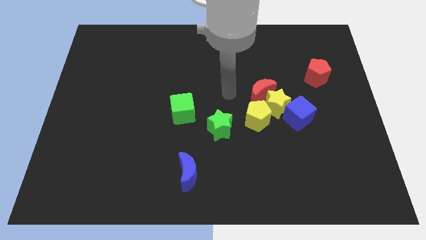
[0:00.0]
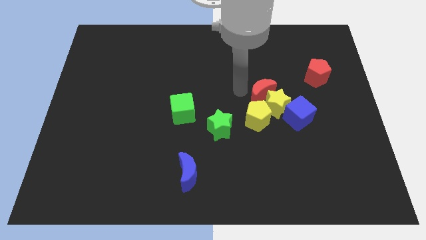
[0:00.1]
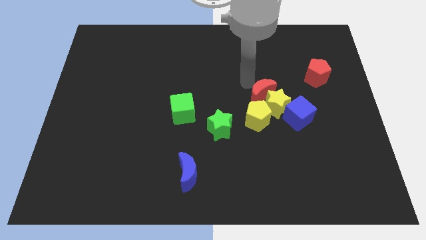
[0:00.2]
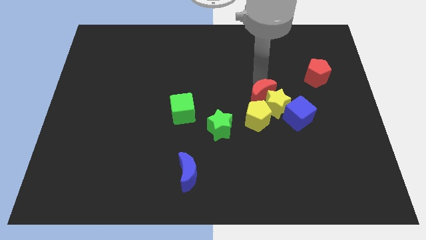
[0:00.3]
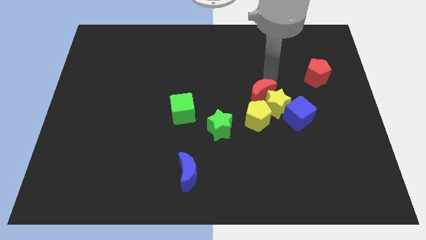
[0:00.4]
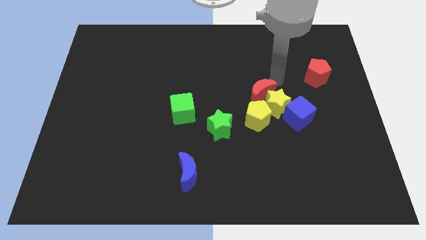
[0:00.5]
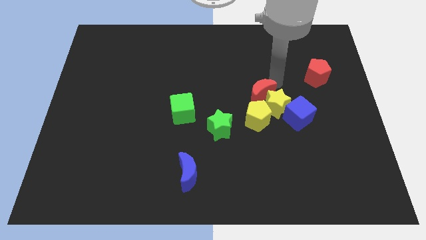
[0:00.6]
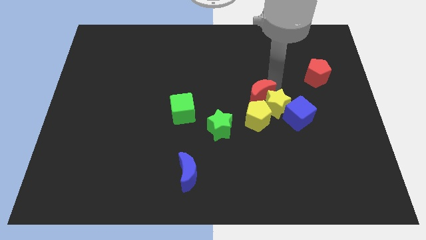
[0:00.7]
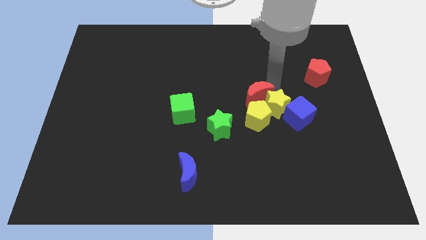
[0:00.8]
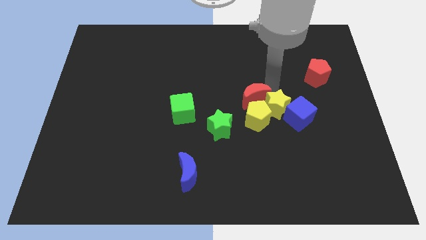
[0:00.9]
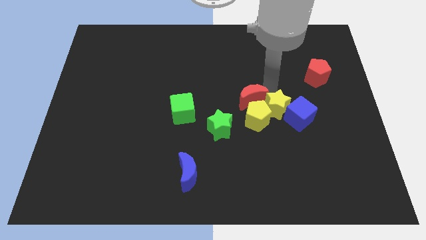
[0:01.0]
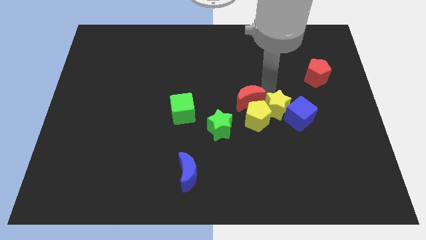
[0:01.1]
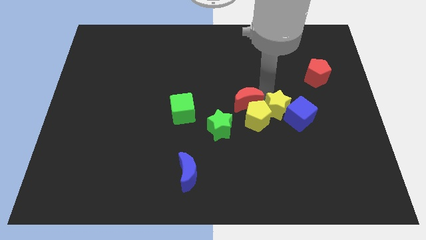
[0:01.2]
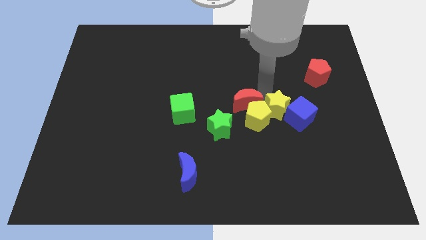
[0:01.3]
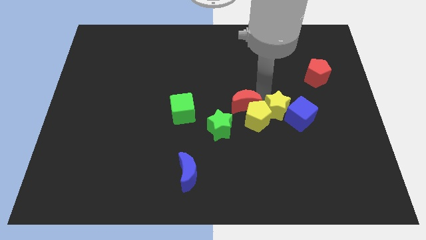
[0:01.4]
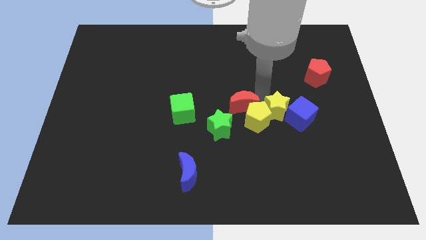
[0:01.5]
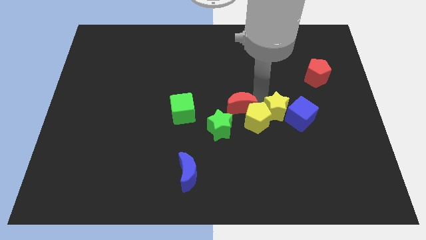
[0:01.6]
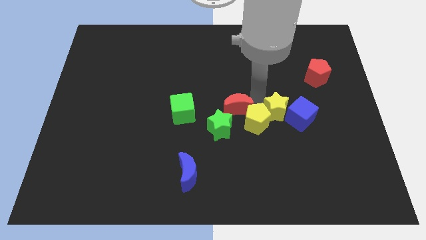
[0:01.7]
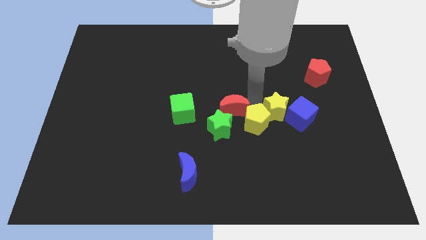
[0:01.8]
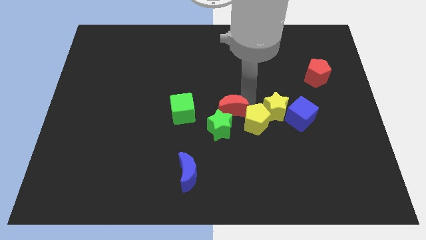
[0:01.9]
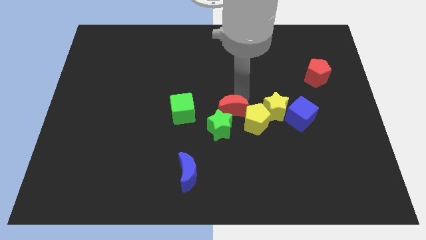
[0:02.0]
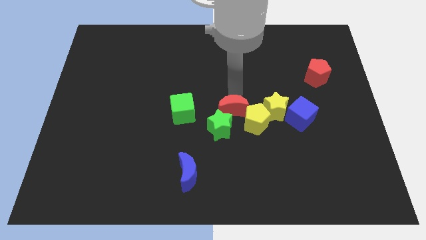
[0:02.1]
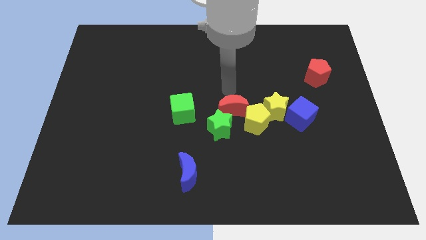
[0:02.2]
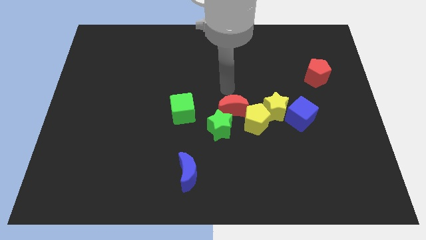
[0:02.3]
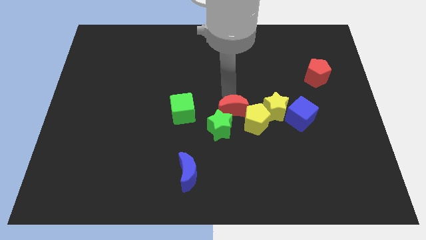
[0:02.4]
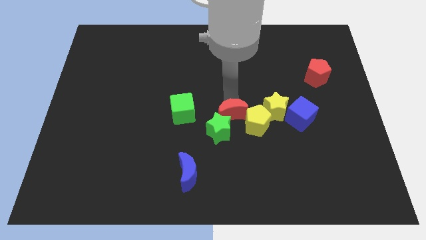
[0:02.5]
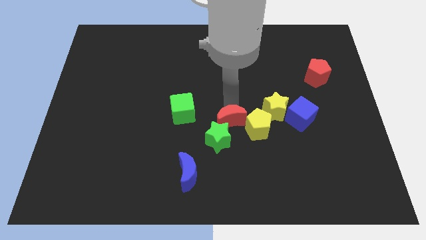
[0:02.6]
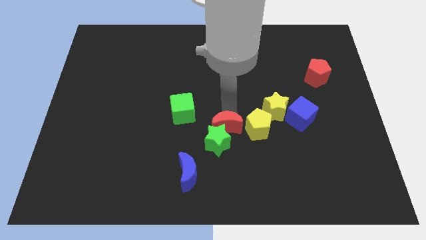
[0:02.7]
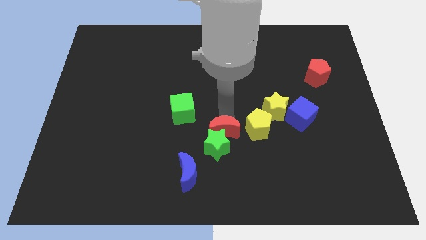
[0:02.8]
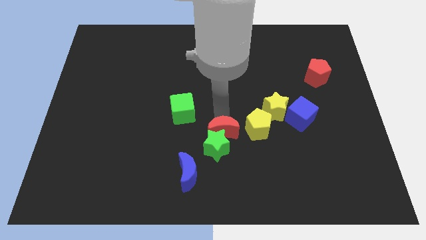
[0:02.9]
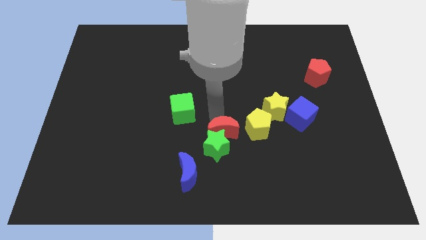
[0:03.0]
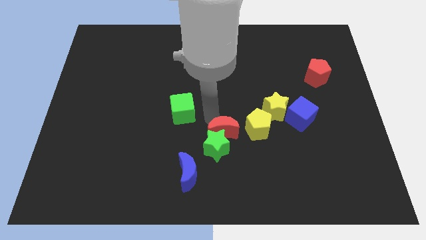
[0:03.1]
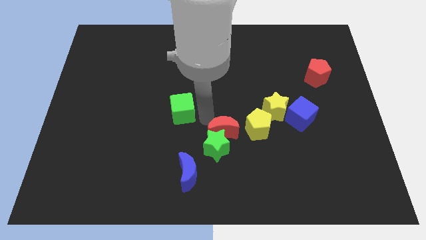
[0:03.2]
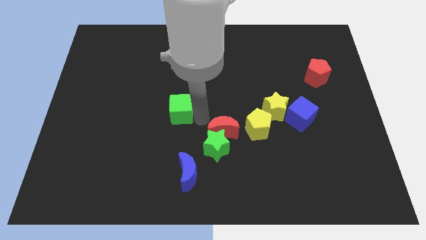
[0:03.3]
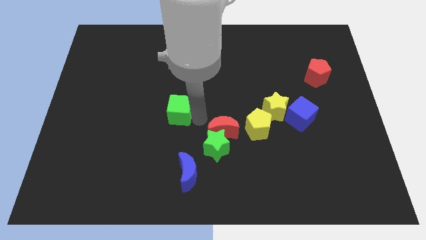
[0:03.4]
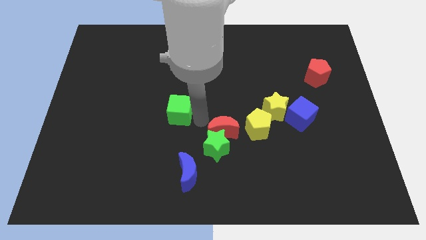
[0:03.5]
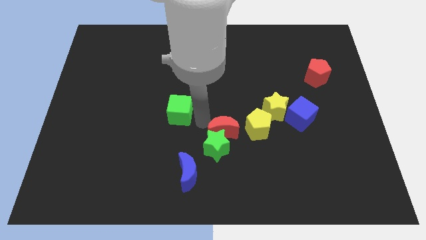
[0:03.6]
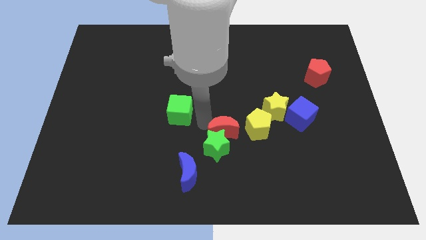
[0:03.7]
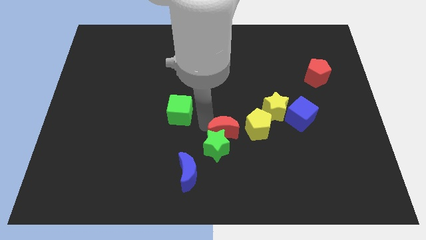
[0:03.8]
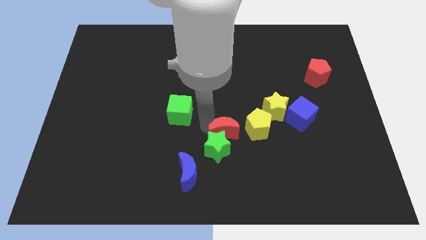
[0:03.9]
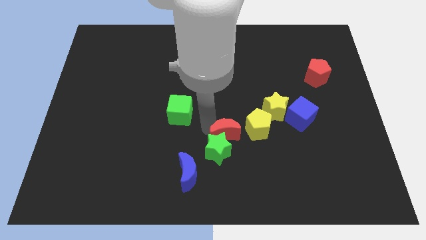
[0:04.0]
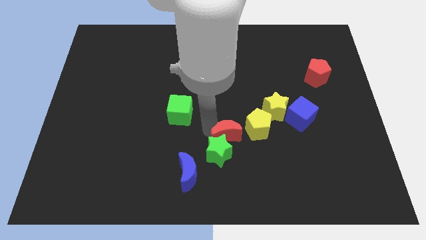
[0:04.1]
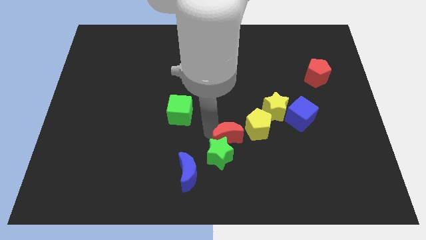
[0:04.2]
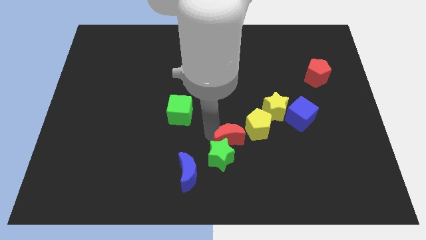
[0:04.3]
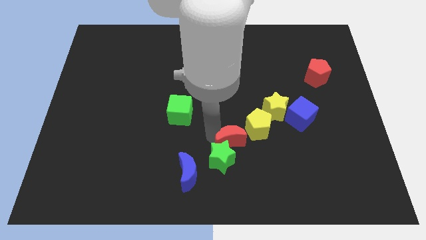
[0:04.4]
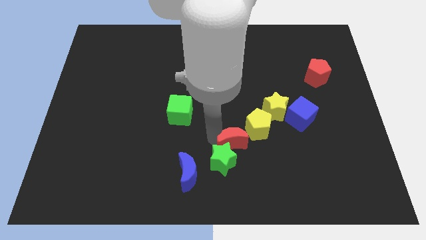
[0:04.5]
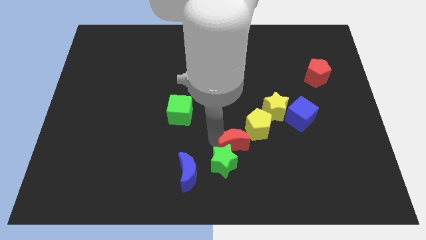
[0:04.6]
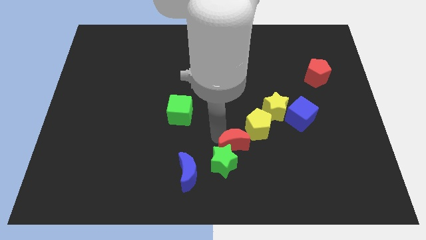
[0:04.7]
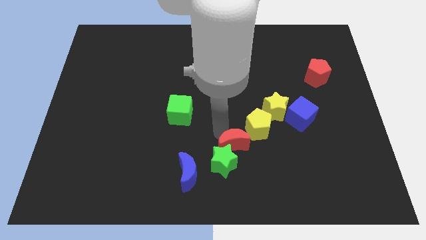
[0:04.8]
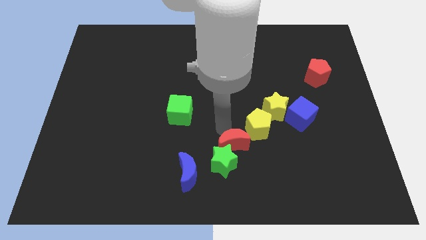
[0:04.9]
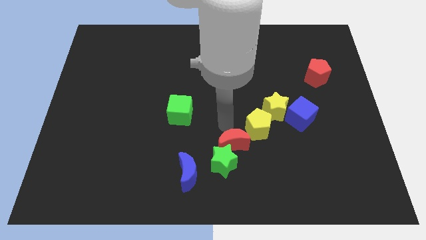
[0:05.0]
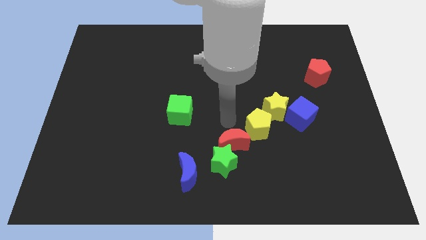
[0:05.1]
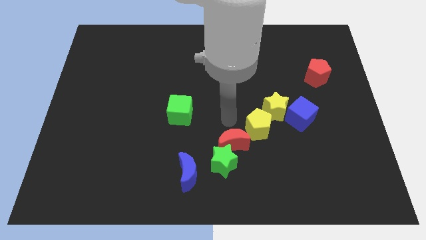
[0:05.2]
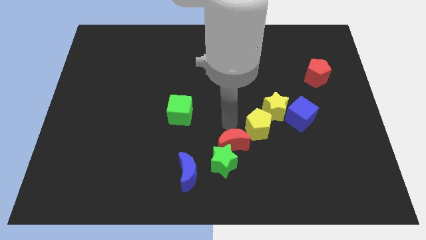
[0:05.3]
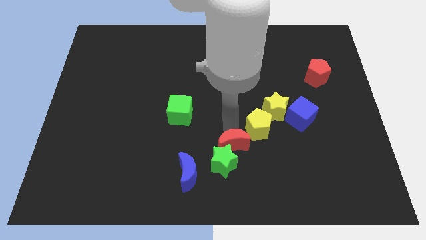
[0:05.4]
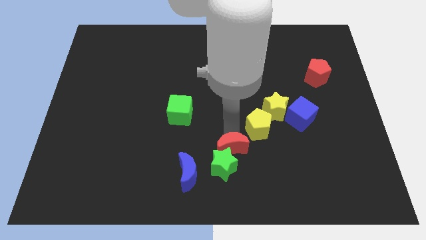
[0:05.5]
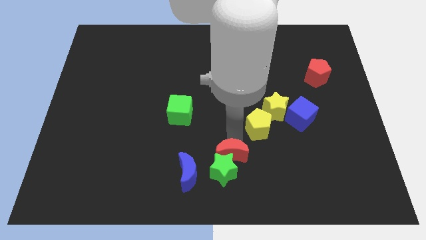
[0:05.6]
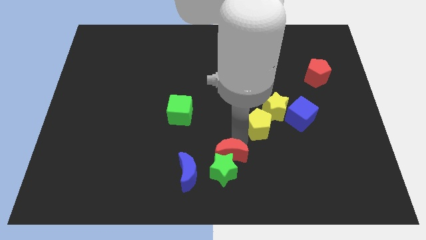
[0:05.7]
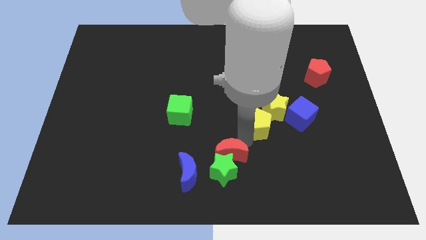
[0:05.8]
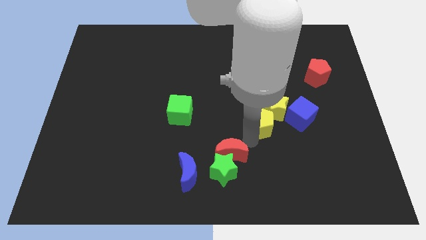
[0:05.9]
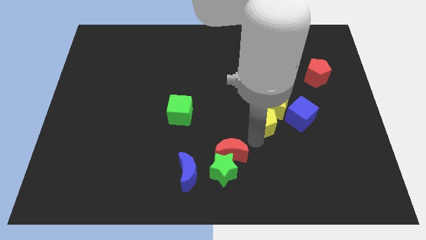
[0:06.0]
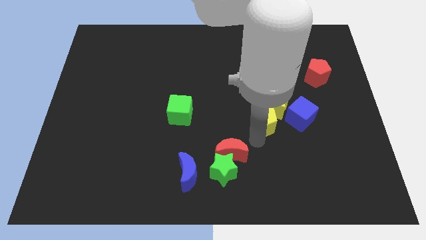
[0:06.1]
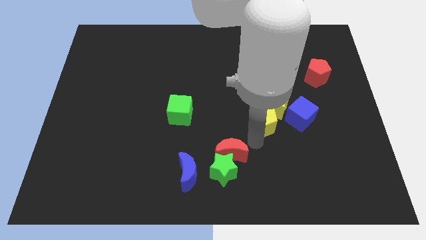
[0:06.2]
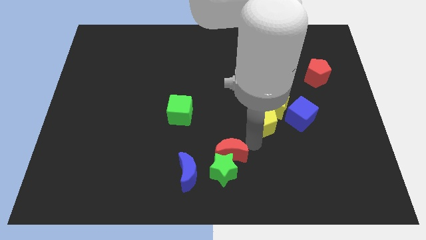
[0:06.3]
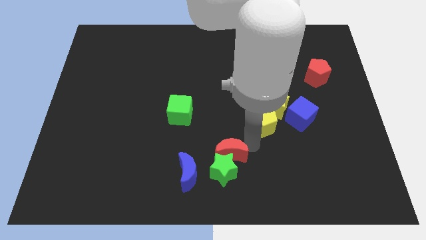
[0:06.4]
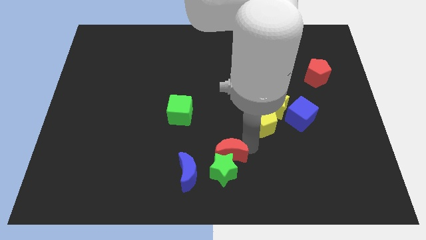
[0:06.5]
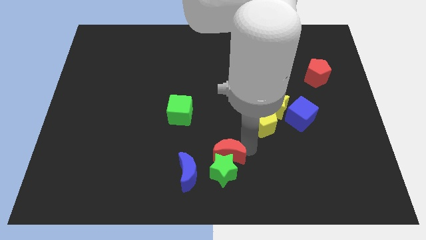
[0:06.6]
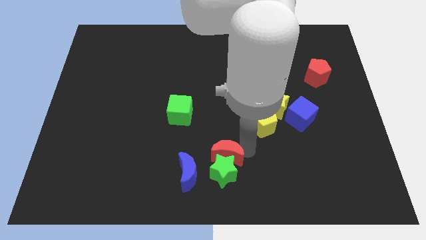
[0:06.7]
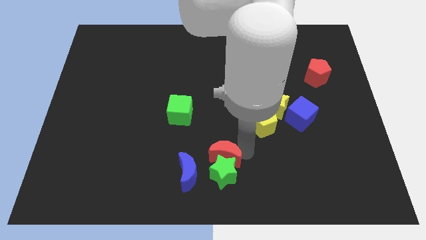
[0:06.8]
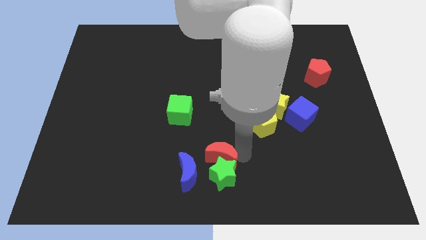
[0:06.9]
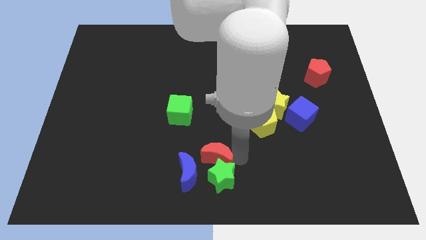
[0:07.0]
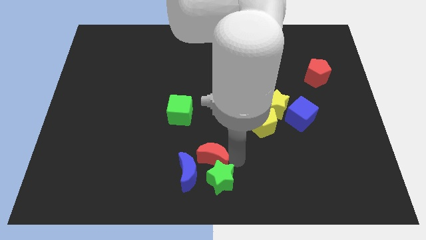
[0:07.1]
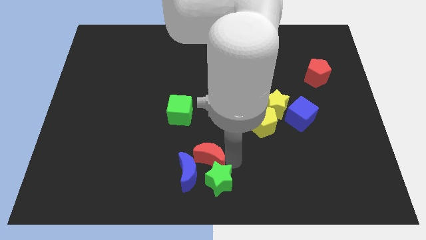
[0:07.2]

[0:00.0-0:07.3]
put the red moon towards the blue moon

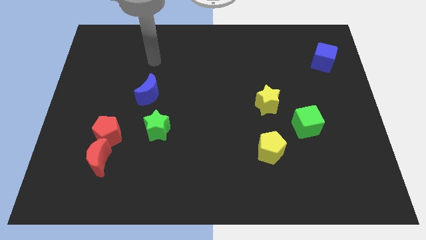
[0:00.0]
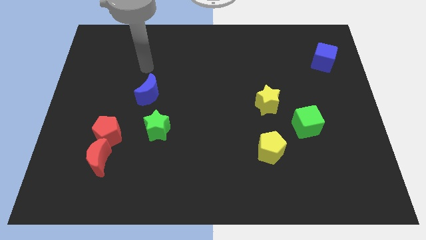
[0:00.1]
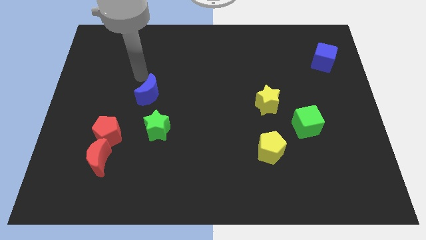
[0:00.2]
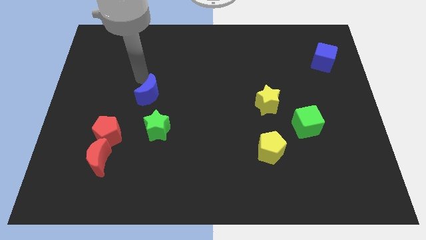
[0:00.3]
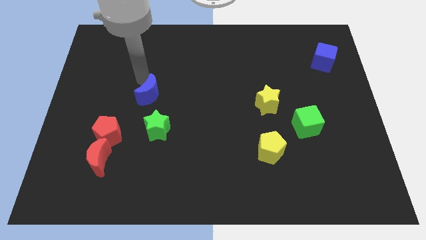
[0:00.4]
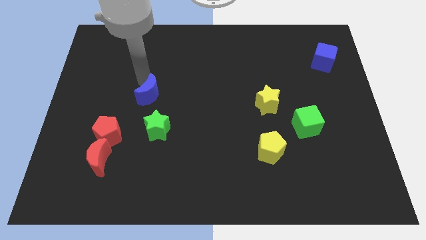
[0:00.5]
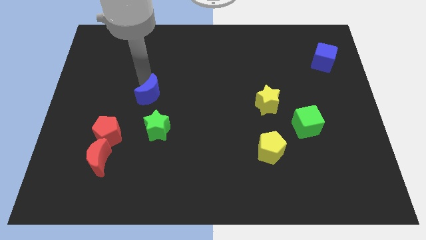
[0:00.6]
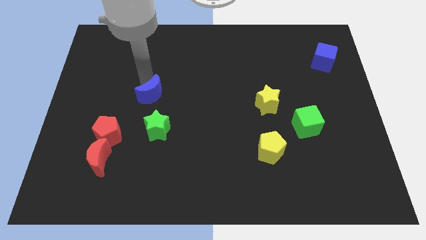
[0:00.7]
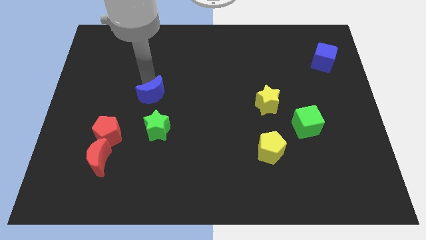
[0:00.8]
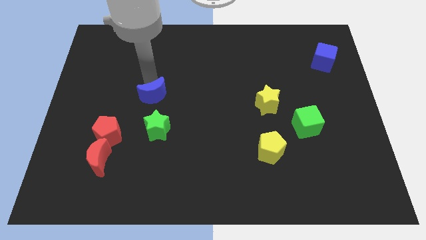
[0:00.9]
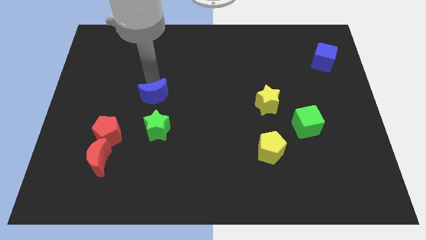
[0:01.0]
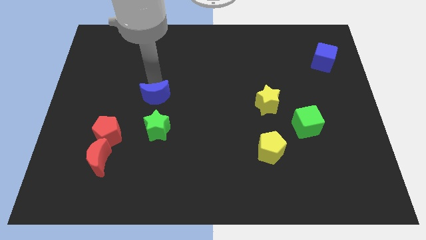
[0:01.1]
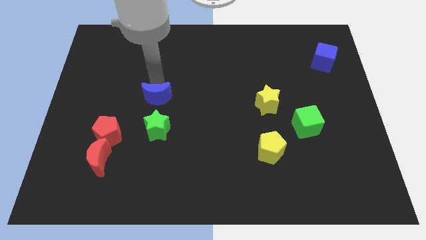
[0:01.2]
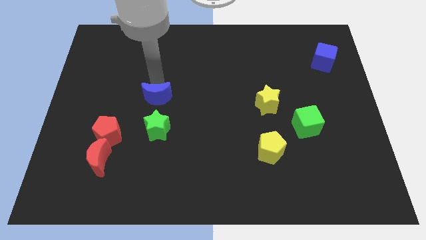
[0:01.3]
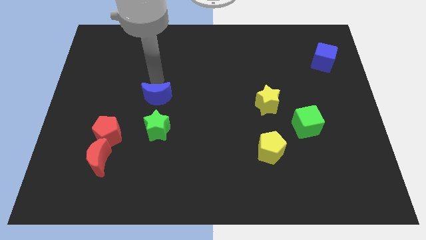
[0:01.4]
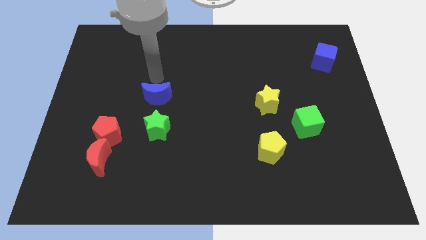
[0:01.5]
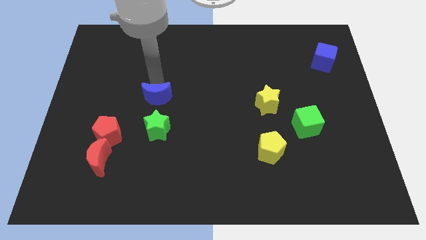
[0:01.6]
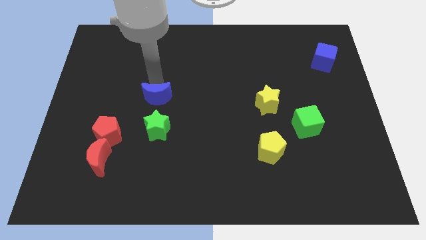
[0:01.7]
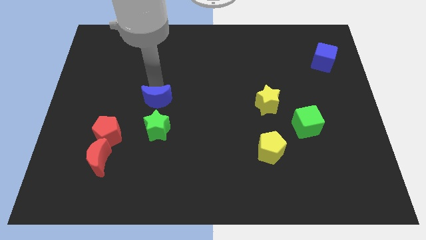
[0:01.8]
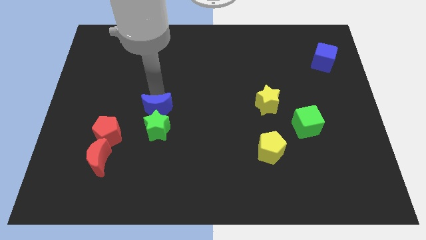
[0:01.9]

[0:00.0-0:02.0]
put the blue moon towards the green star
